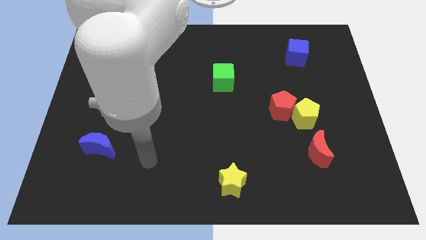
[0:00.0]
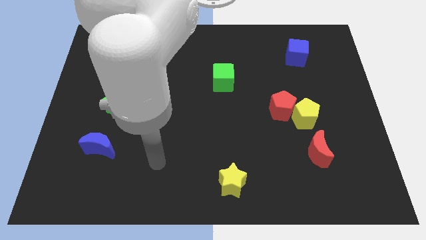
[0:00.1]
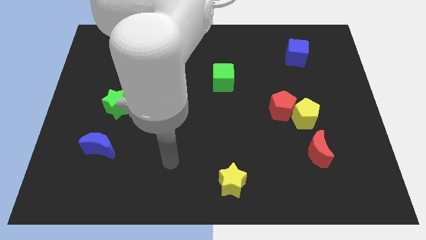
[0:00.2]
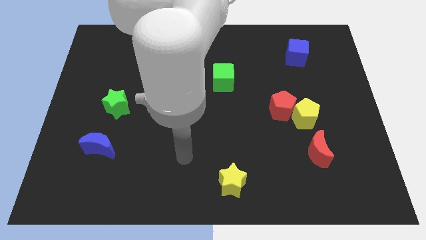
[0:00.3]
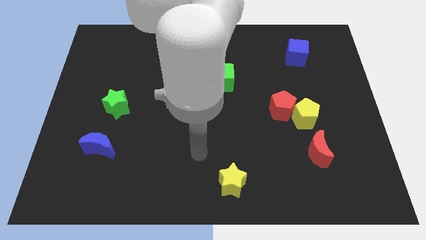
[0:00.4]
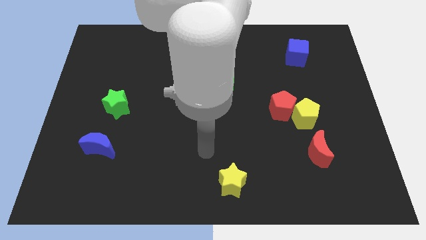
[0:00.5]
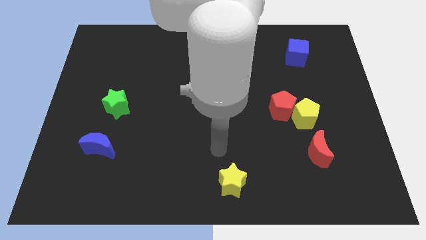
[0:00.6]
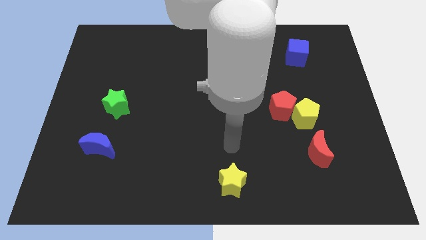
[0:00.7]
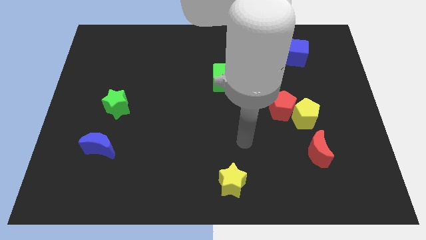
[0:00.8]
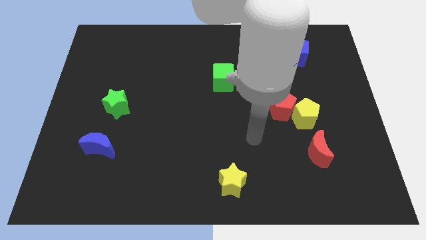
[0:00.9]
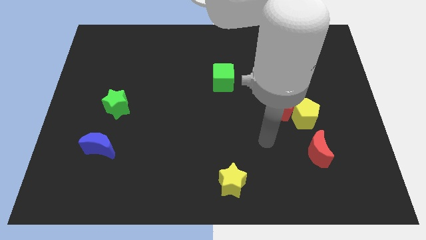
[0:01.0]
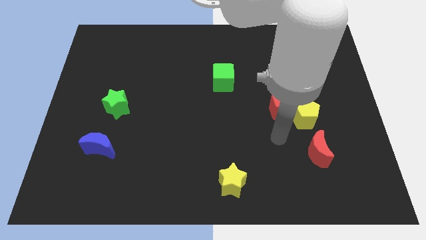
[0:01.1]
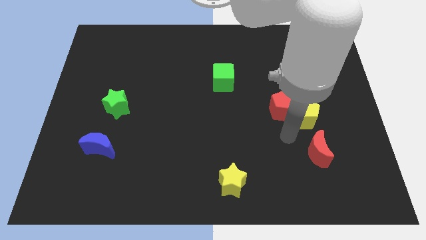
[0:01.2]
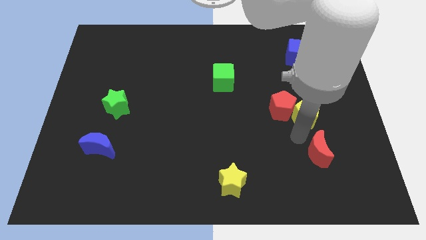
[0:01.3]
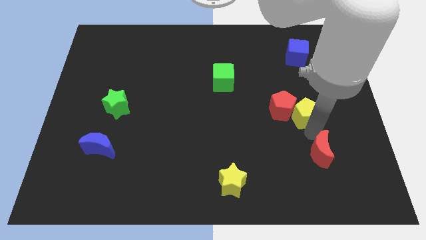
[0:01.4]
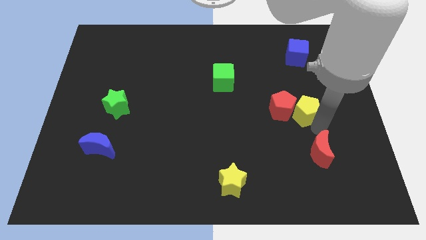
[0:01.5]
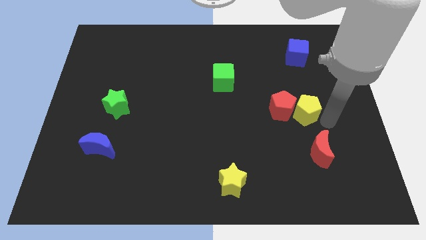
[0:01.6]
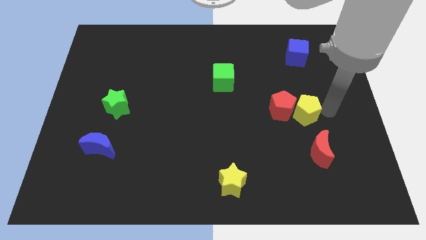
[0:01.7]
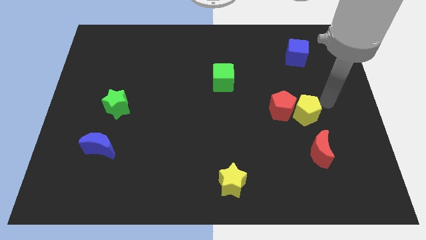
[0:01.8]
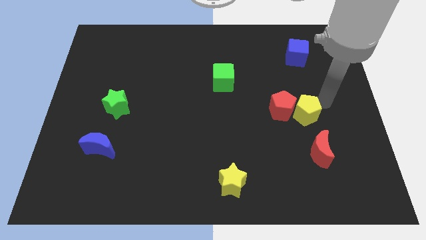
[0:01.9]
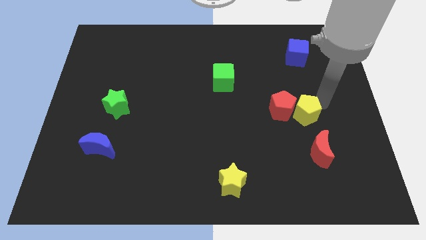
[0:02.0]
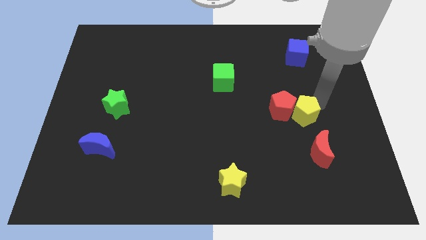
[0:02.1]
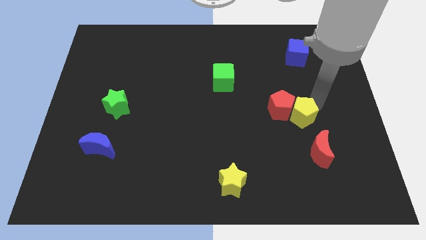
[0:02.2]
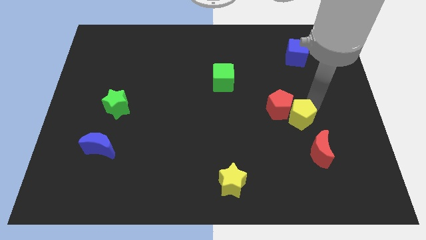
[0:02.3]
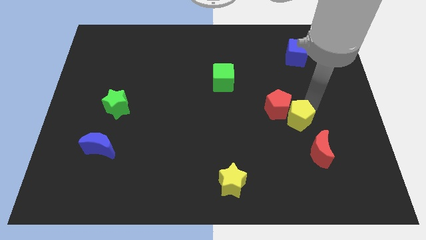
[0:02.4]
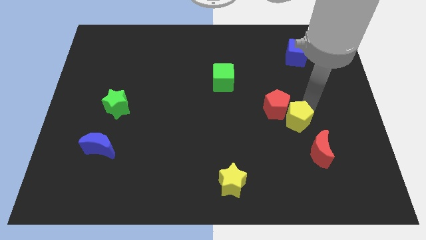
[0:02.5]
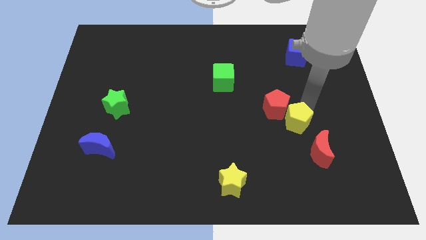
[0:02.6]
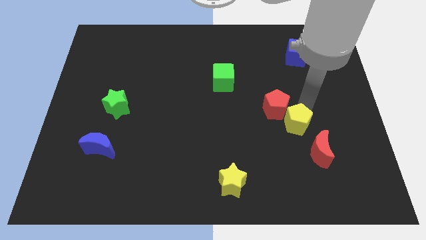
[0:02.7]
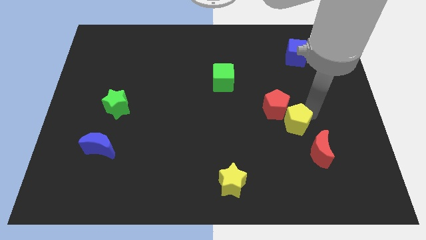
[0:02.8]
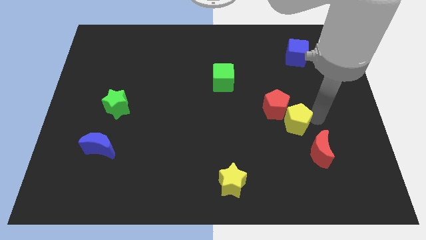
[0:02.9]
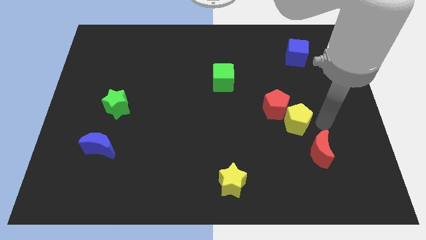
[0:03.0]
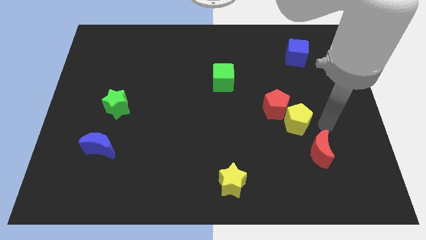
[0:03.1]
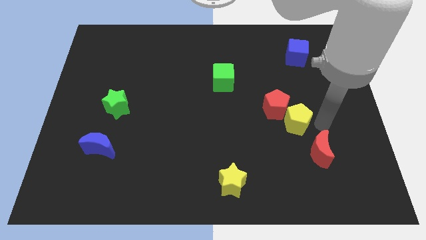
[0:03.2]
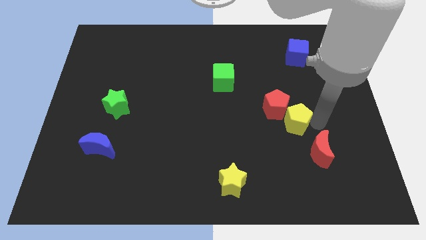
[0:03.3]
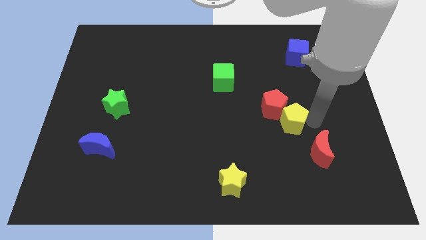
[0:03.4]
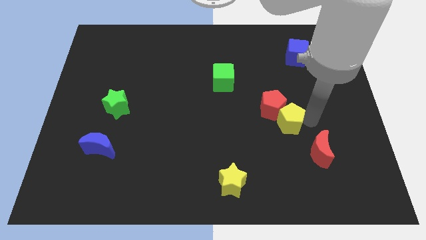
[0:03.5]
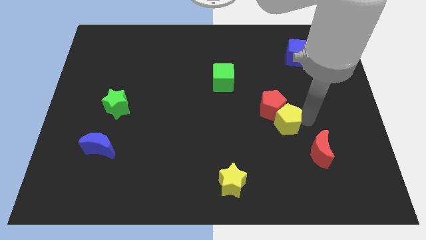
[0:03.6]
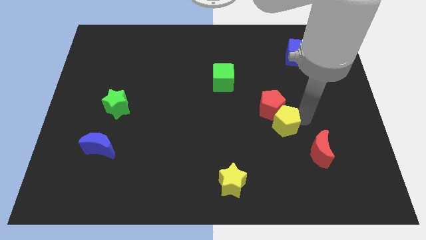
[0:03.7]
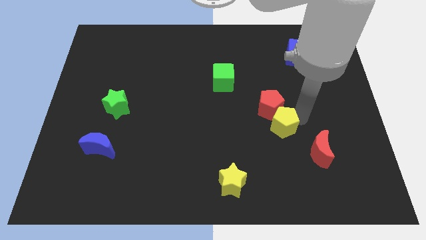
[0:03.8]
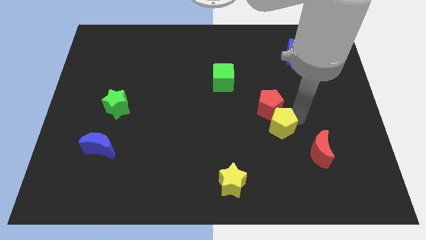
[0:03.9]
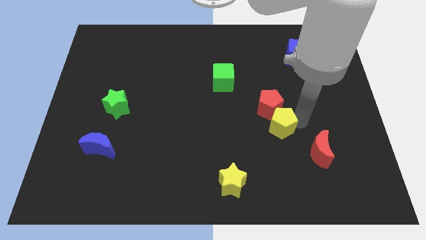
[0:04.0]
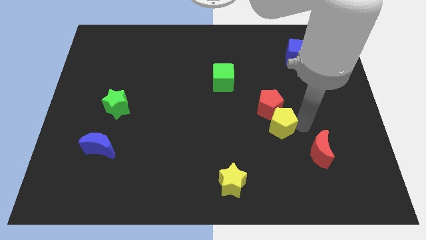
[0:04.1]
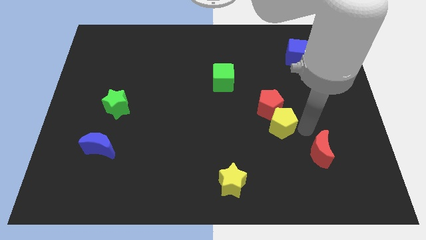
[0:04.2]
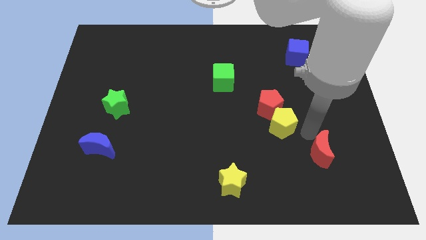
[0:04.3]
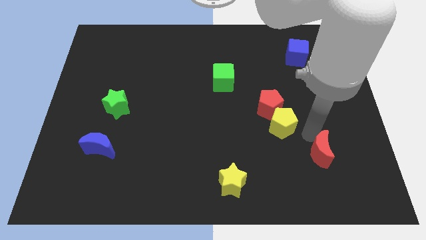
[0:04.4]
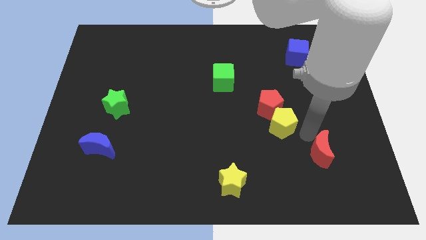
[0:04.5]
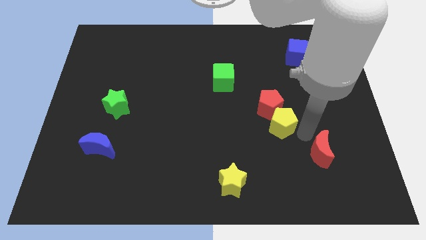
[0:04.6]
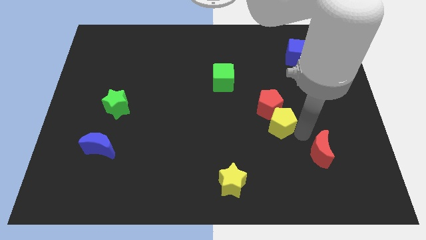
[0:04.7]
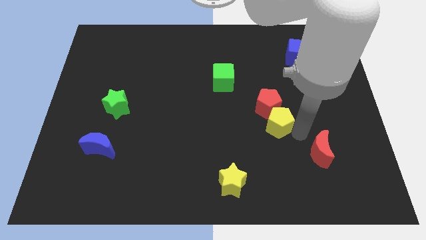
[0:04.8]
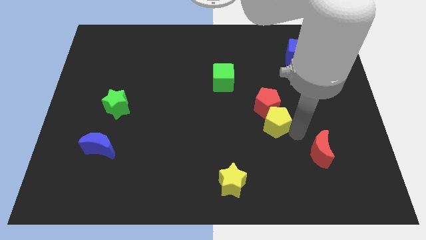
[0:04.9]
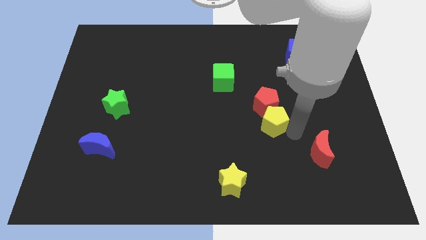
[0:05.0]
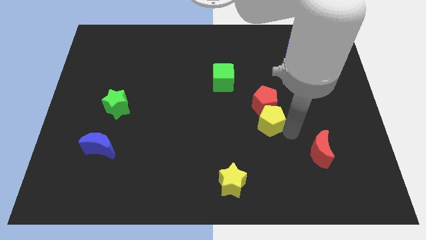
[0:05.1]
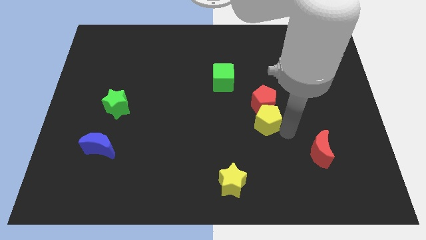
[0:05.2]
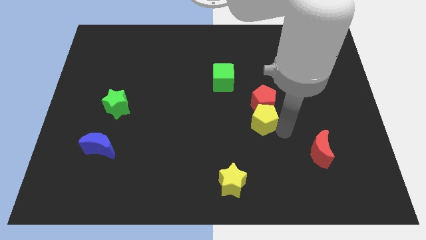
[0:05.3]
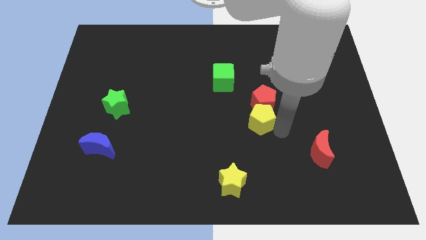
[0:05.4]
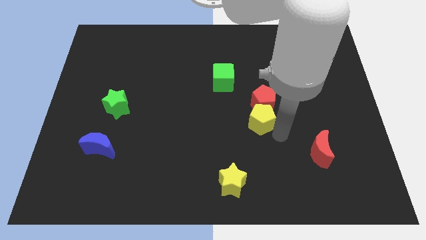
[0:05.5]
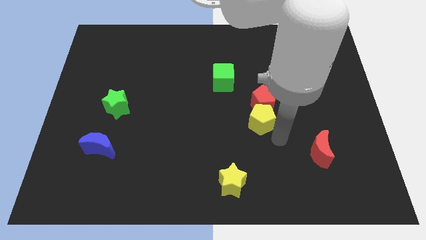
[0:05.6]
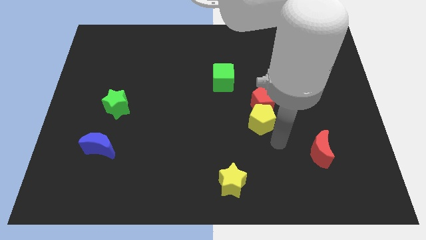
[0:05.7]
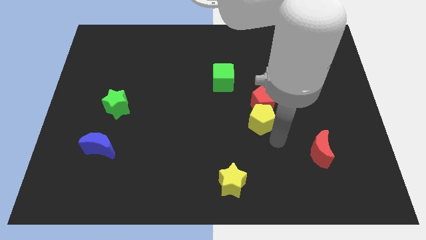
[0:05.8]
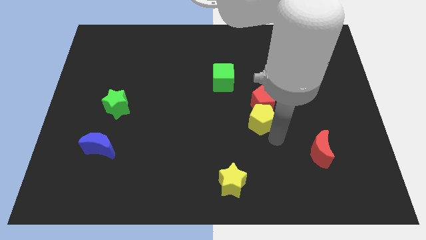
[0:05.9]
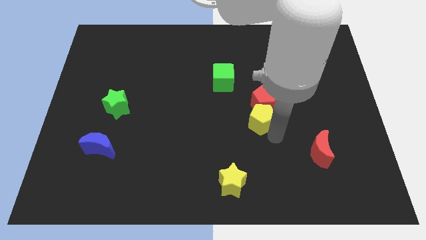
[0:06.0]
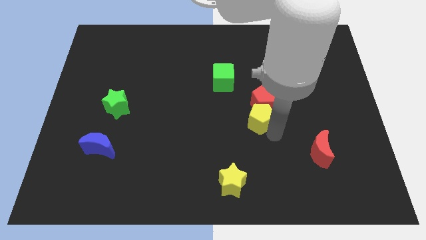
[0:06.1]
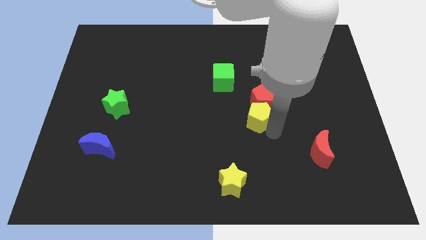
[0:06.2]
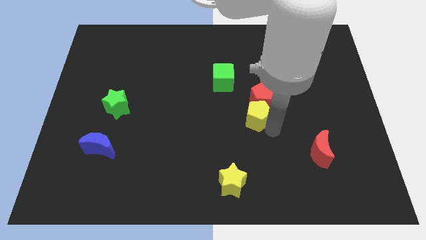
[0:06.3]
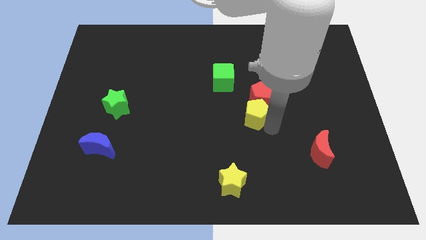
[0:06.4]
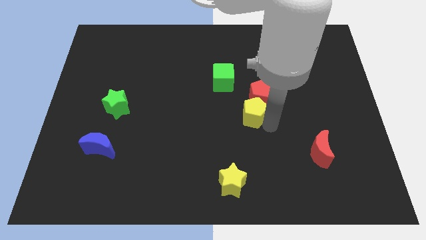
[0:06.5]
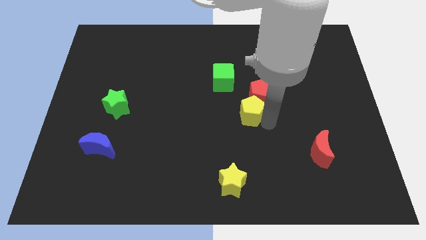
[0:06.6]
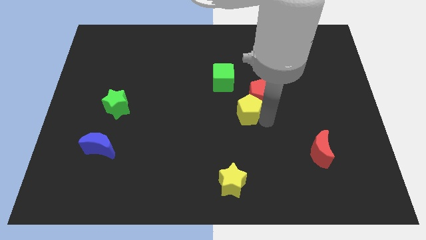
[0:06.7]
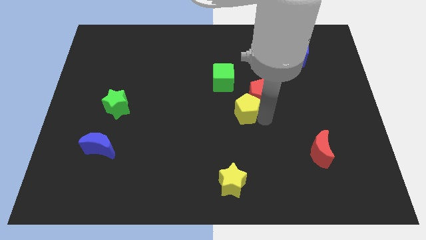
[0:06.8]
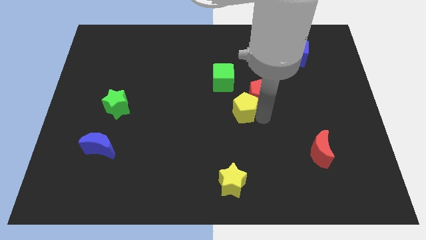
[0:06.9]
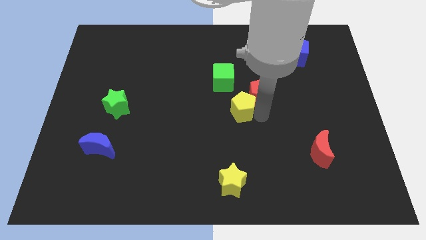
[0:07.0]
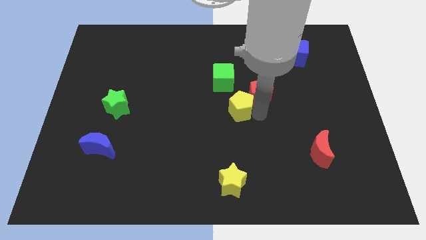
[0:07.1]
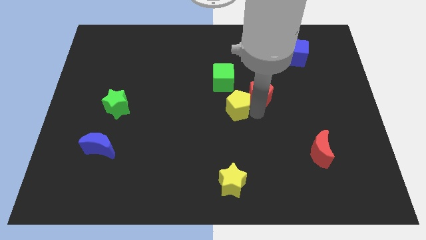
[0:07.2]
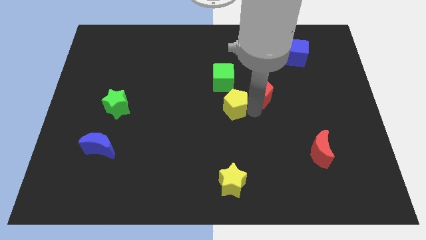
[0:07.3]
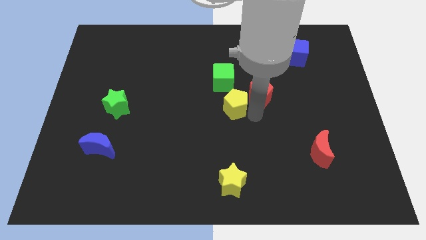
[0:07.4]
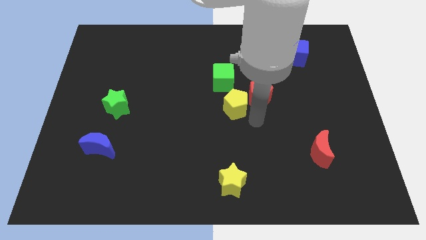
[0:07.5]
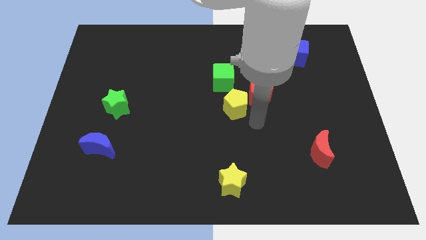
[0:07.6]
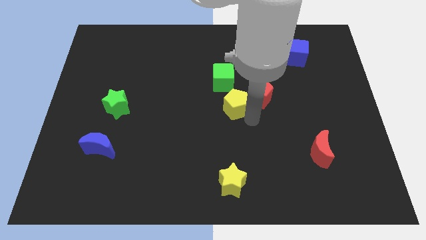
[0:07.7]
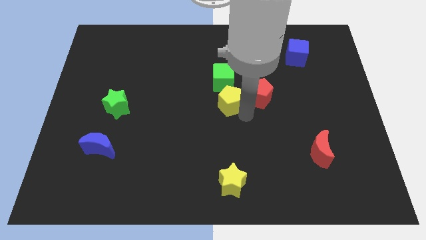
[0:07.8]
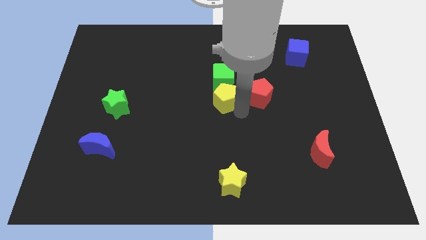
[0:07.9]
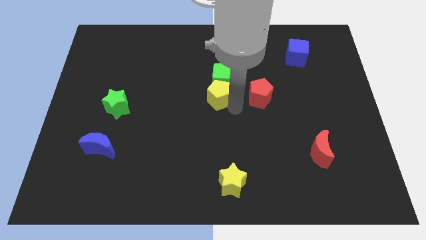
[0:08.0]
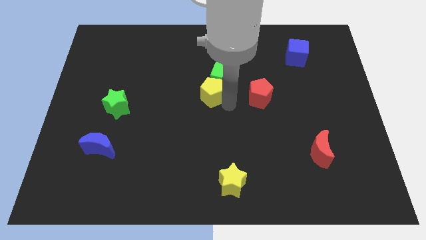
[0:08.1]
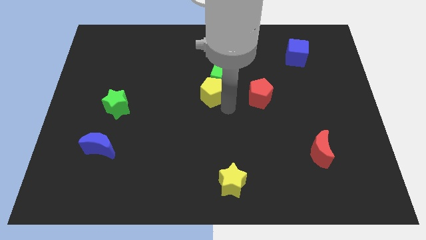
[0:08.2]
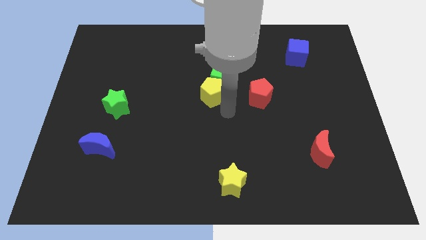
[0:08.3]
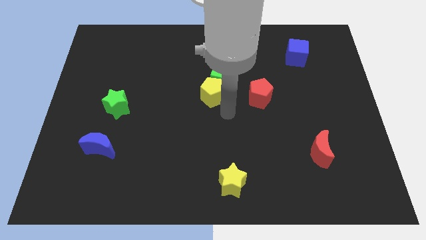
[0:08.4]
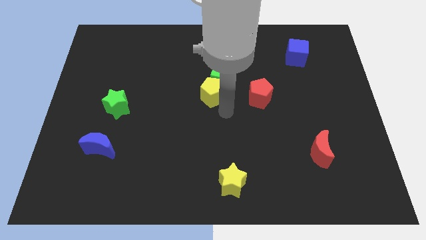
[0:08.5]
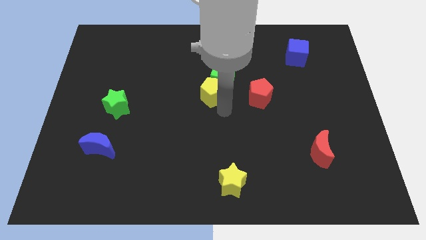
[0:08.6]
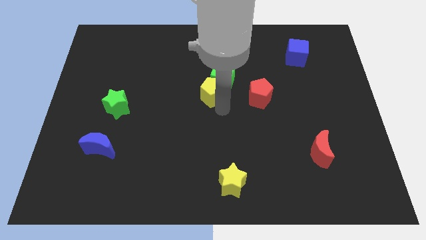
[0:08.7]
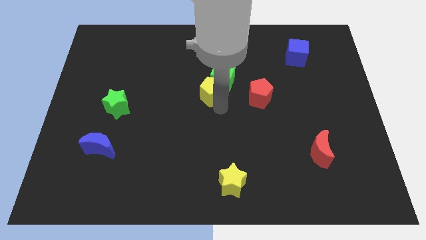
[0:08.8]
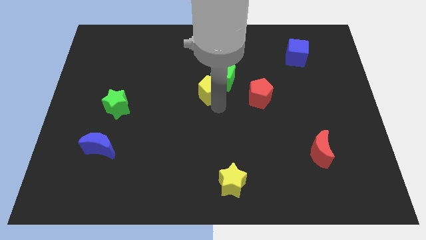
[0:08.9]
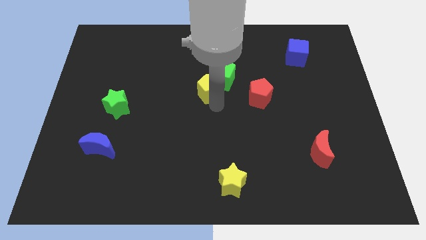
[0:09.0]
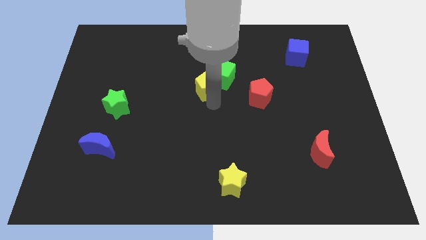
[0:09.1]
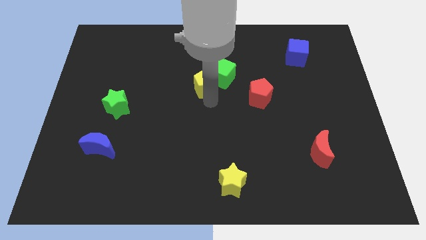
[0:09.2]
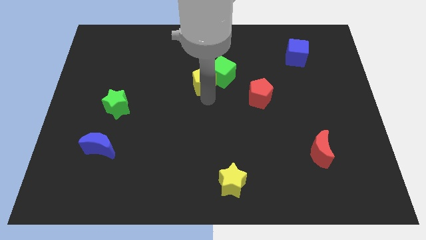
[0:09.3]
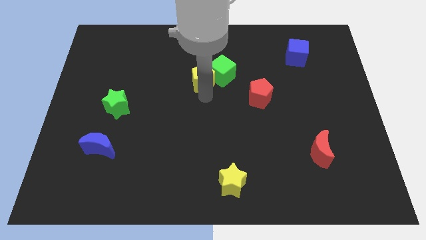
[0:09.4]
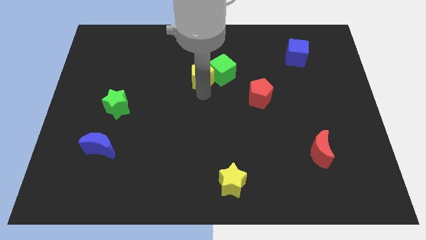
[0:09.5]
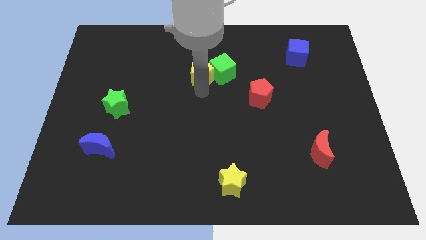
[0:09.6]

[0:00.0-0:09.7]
move the yellow pentagon to the top left of the green cube
